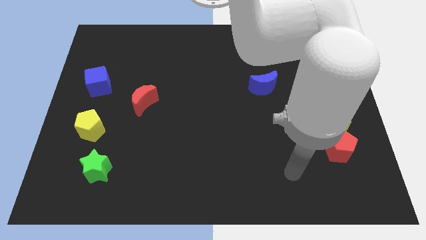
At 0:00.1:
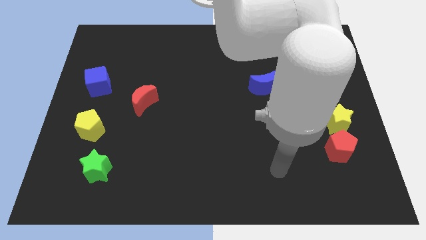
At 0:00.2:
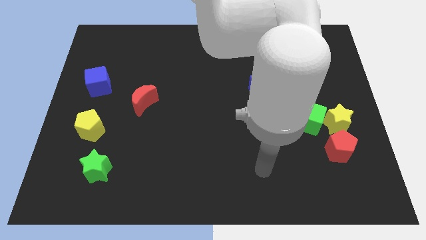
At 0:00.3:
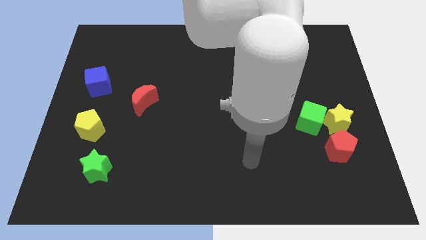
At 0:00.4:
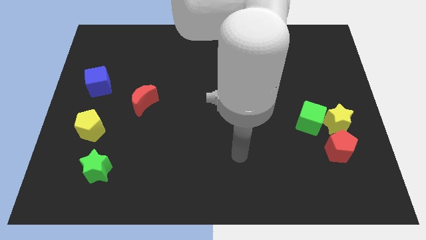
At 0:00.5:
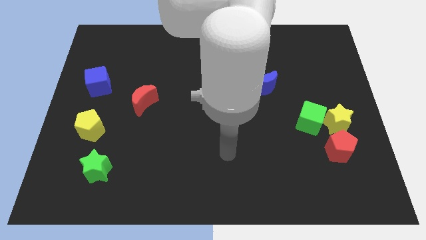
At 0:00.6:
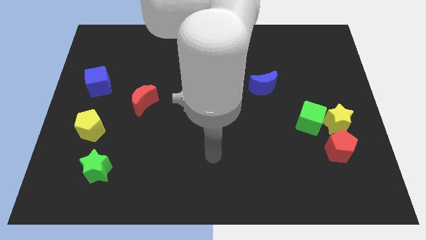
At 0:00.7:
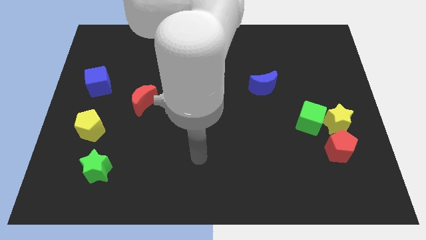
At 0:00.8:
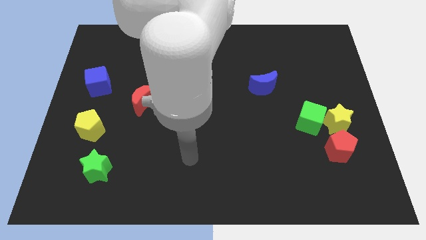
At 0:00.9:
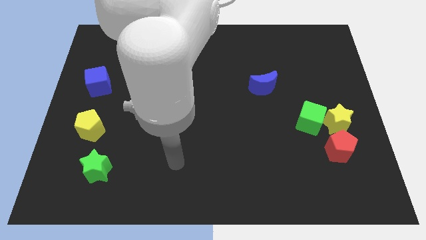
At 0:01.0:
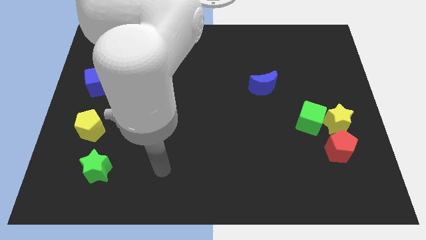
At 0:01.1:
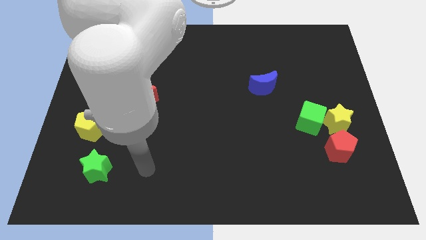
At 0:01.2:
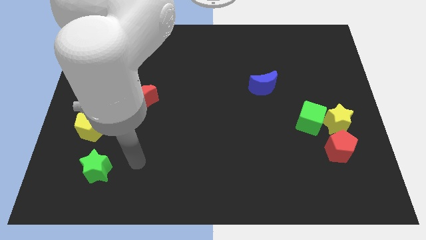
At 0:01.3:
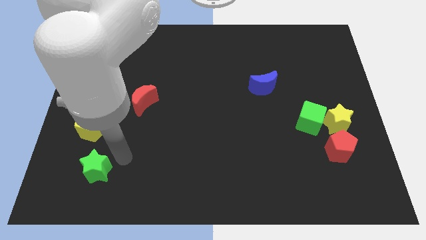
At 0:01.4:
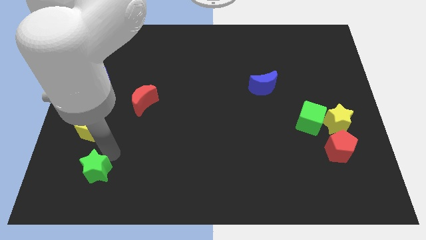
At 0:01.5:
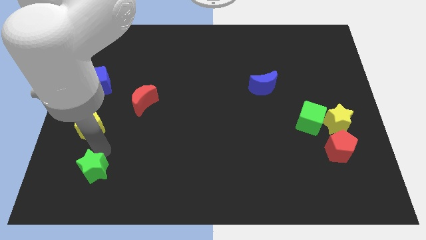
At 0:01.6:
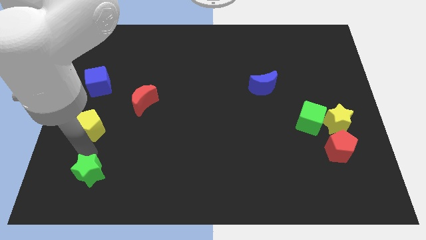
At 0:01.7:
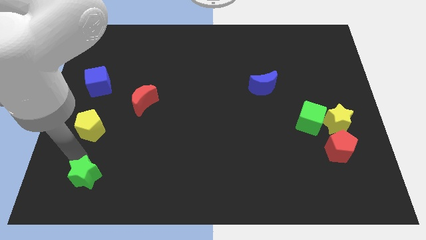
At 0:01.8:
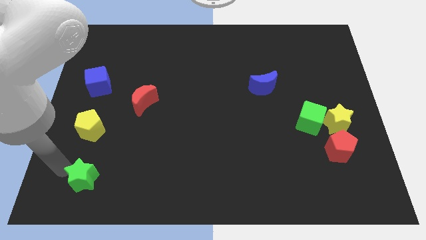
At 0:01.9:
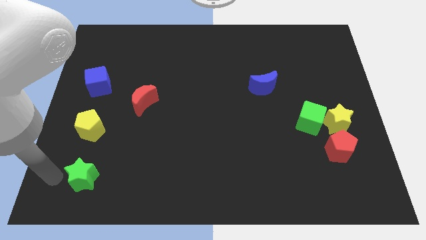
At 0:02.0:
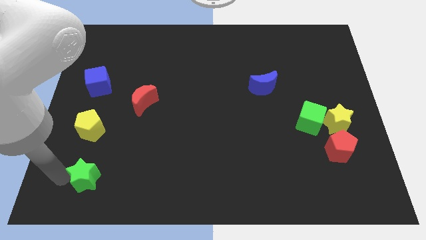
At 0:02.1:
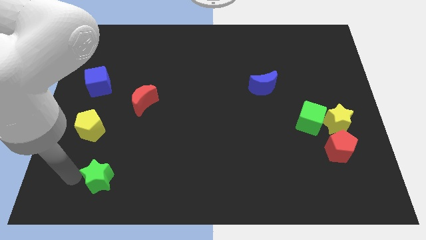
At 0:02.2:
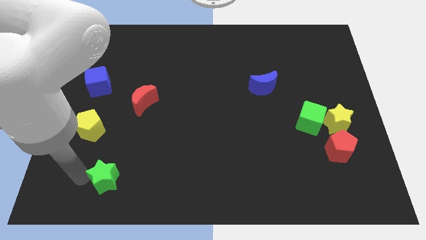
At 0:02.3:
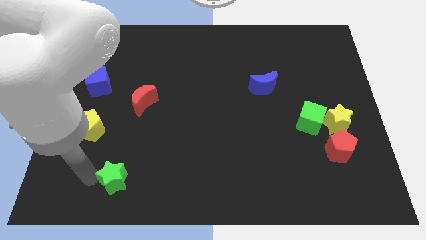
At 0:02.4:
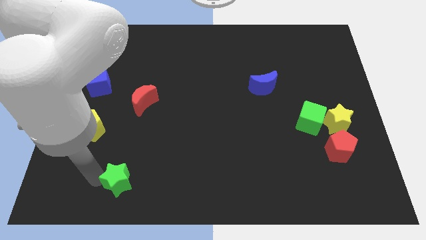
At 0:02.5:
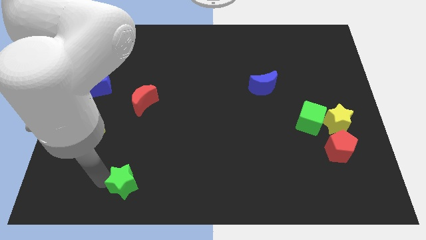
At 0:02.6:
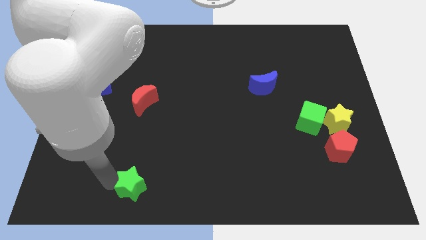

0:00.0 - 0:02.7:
push the green star right slightly

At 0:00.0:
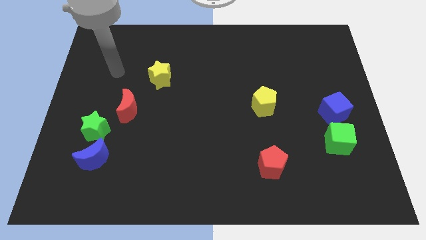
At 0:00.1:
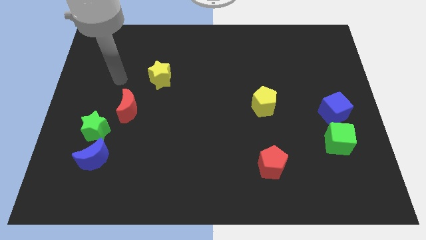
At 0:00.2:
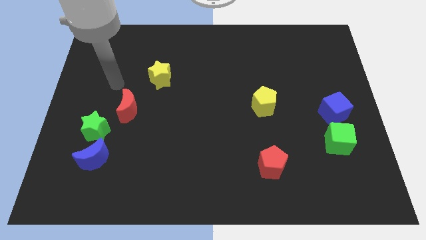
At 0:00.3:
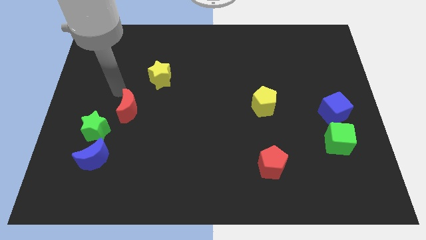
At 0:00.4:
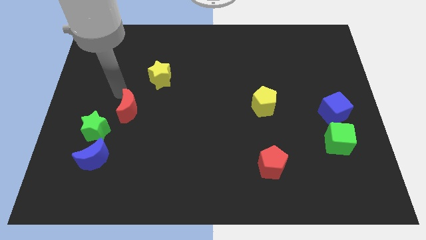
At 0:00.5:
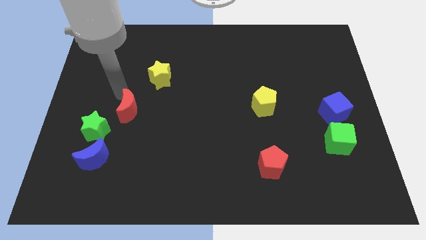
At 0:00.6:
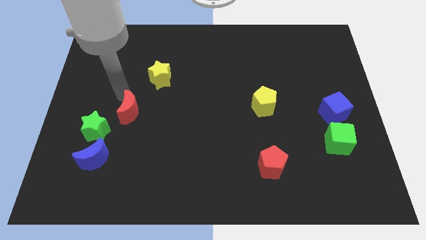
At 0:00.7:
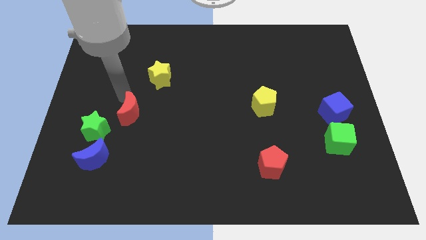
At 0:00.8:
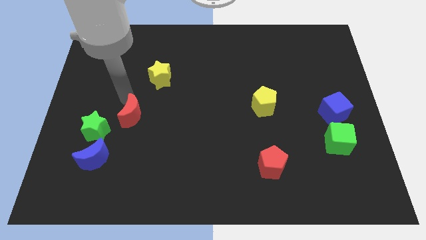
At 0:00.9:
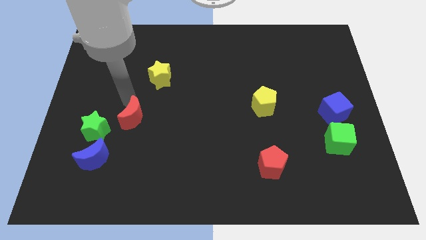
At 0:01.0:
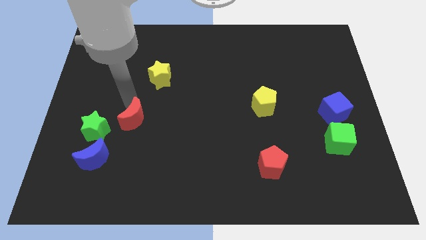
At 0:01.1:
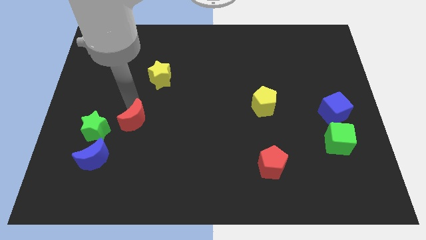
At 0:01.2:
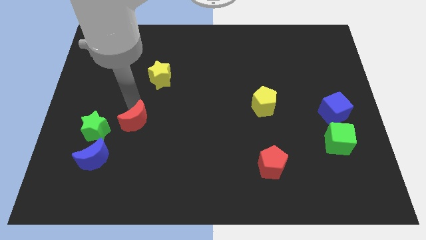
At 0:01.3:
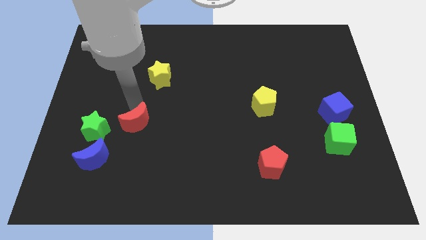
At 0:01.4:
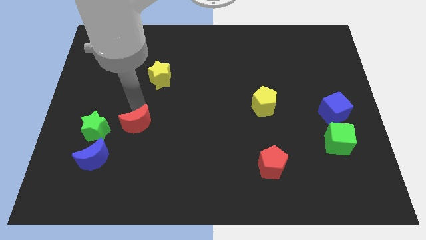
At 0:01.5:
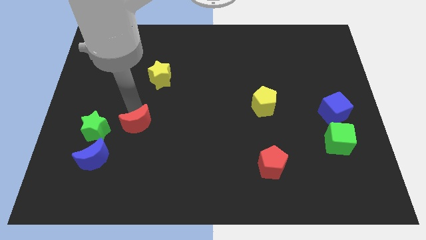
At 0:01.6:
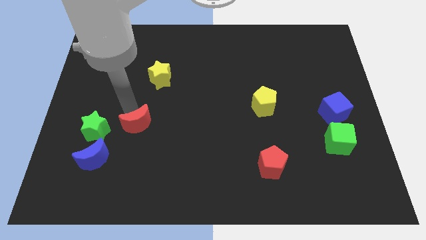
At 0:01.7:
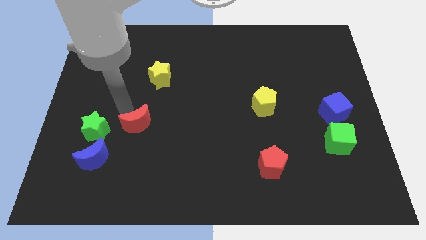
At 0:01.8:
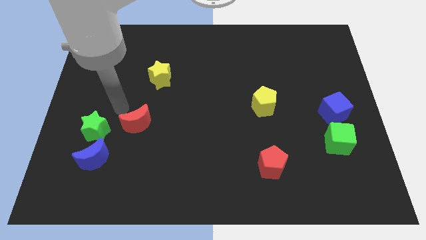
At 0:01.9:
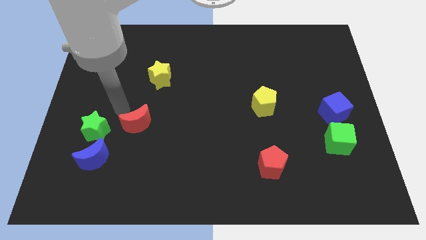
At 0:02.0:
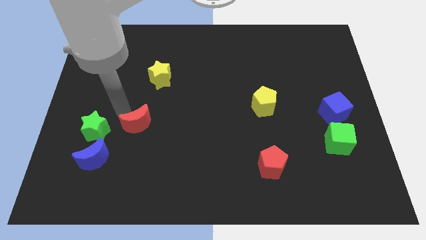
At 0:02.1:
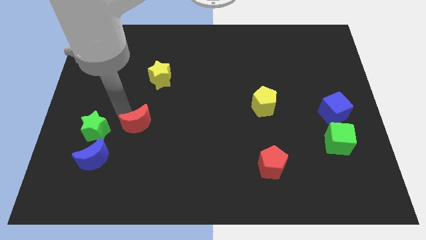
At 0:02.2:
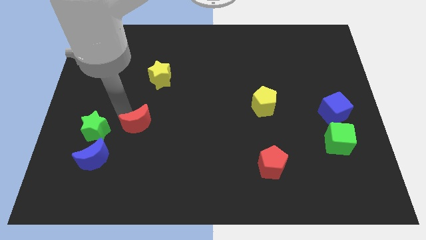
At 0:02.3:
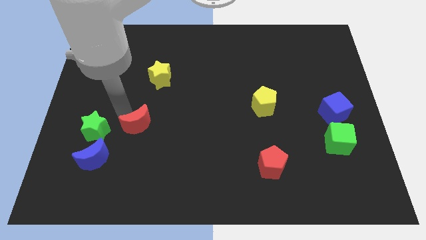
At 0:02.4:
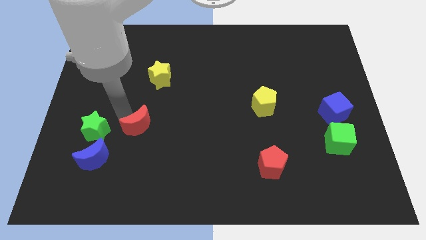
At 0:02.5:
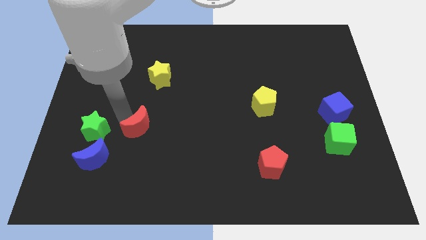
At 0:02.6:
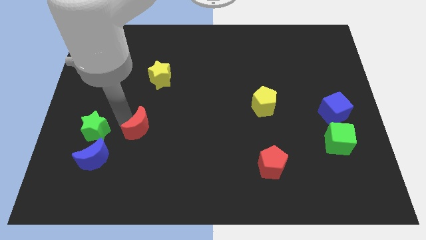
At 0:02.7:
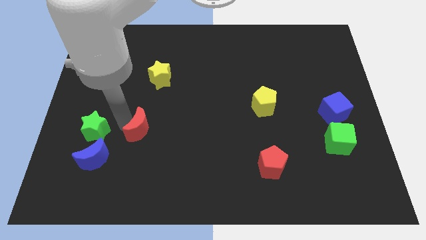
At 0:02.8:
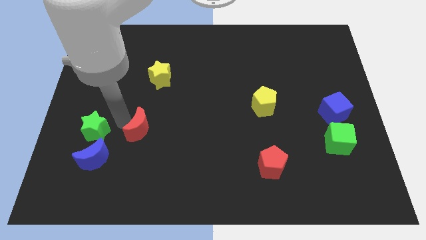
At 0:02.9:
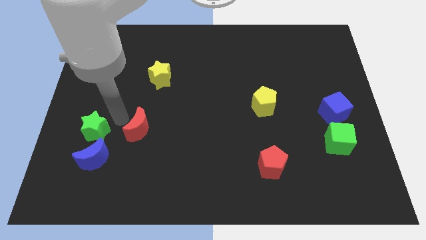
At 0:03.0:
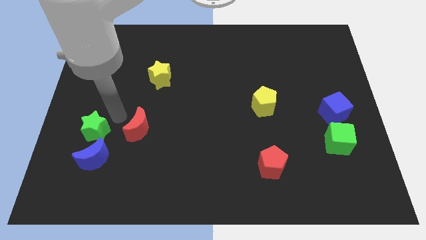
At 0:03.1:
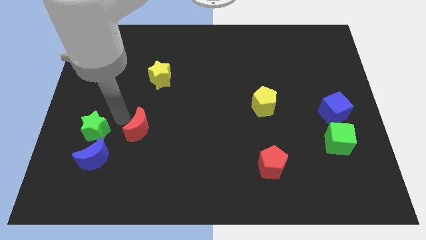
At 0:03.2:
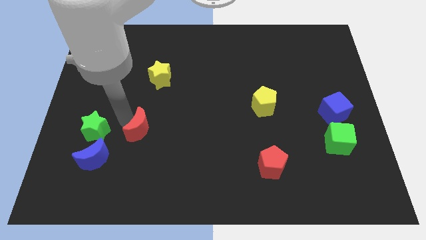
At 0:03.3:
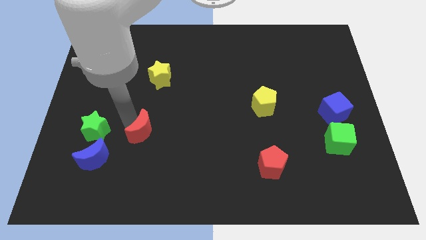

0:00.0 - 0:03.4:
slightly push the red moon down and to the right

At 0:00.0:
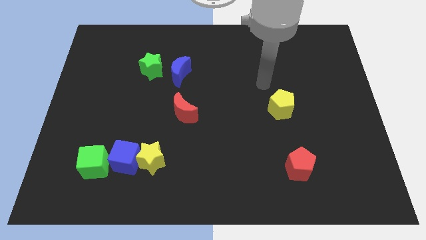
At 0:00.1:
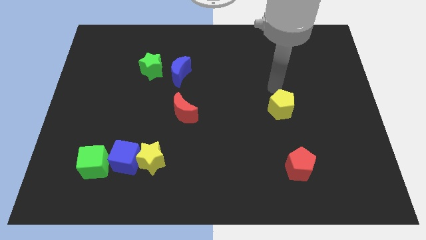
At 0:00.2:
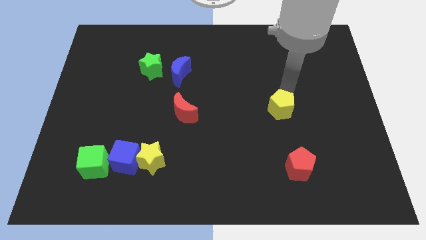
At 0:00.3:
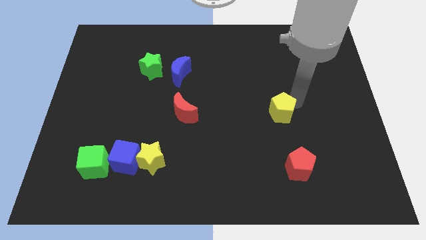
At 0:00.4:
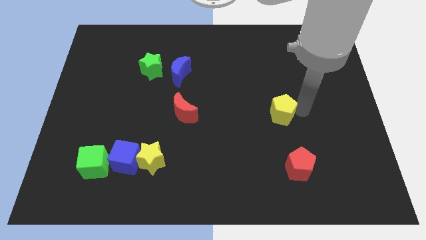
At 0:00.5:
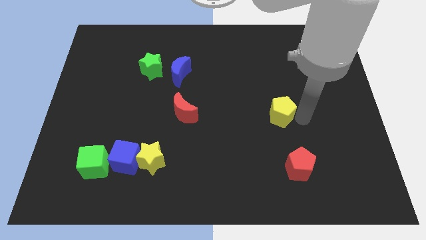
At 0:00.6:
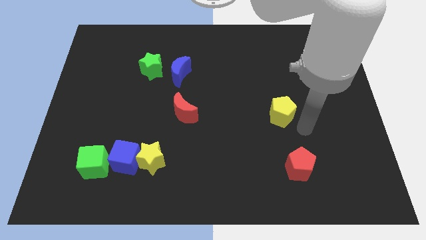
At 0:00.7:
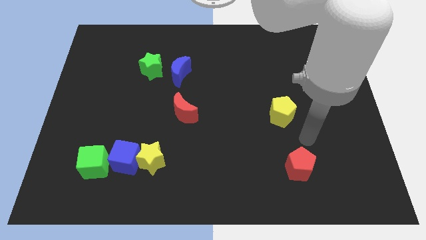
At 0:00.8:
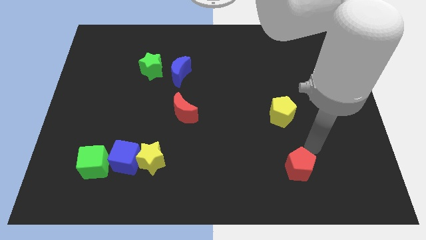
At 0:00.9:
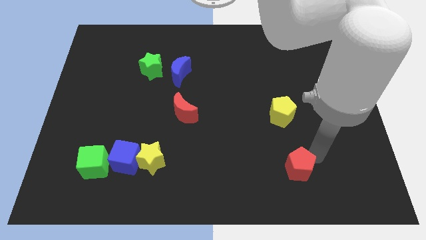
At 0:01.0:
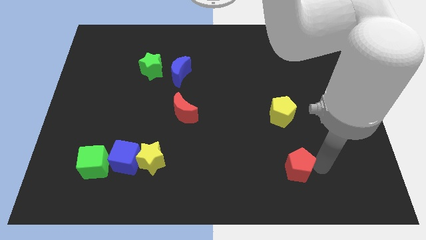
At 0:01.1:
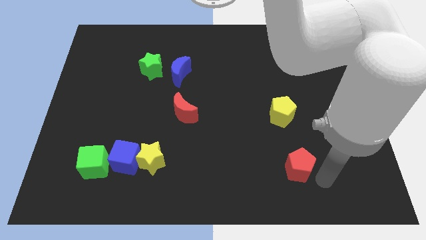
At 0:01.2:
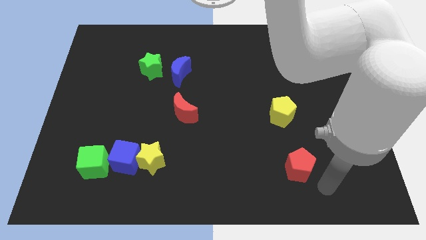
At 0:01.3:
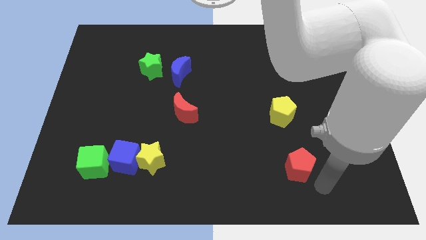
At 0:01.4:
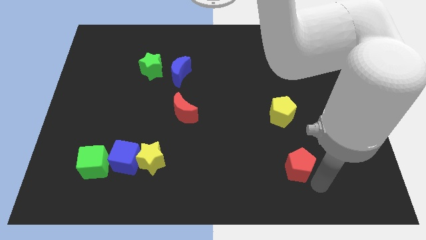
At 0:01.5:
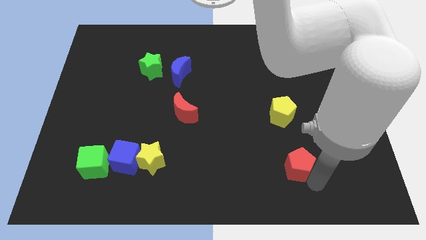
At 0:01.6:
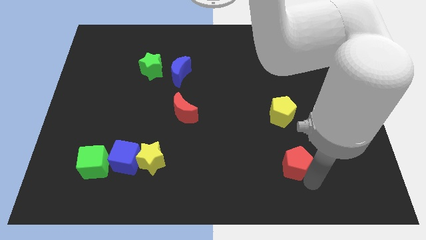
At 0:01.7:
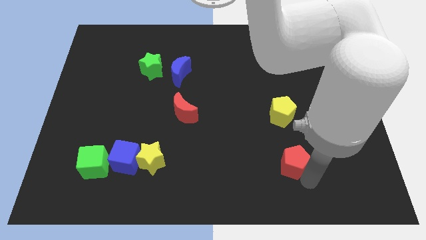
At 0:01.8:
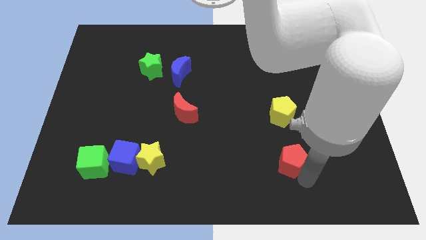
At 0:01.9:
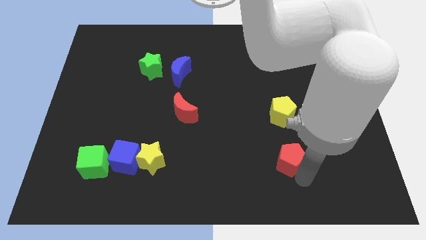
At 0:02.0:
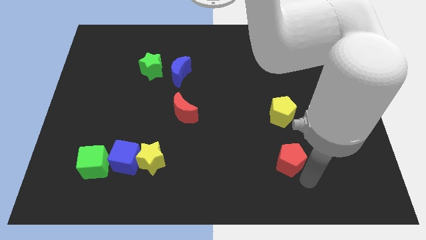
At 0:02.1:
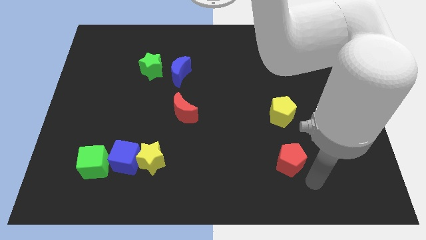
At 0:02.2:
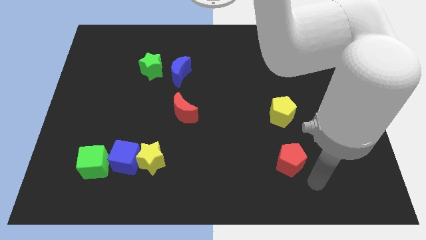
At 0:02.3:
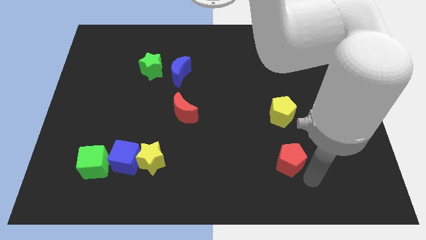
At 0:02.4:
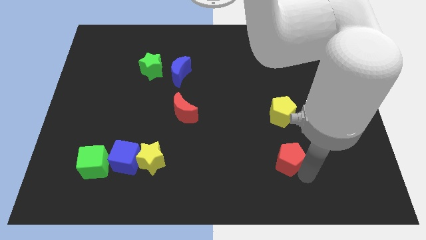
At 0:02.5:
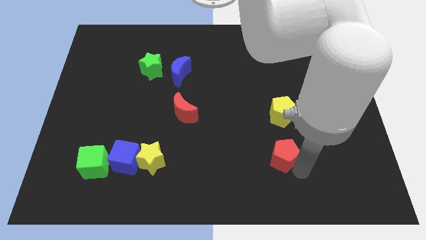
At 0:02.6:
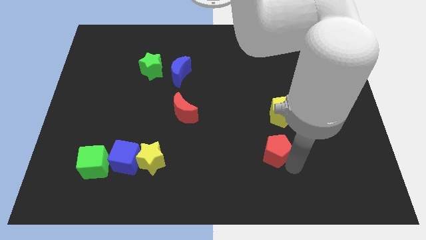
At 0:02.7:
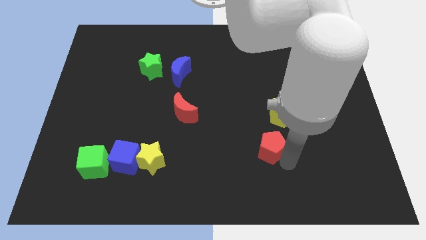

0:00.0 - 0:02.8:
slide the red pentagon diagonally upwards and to the left a bit
